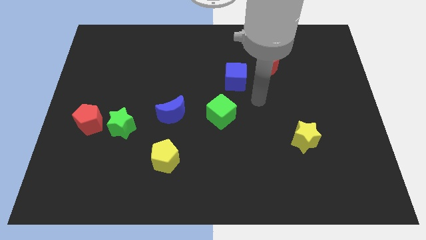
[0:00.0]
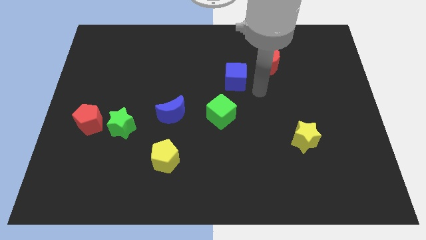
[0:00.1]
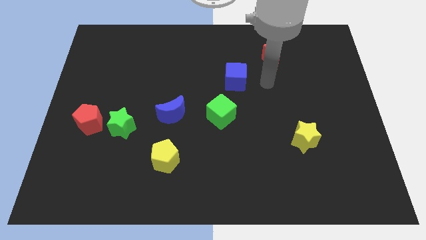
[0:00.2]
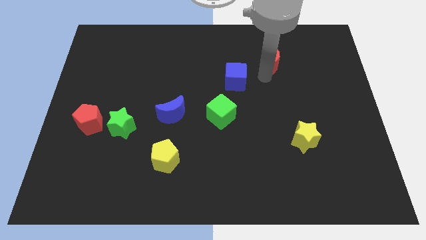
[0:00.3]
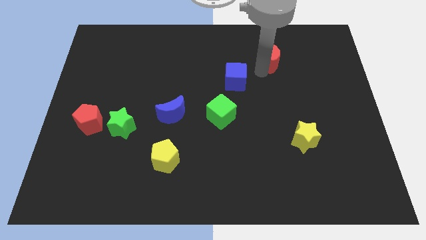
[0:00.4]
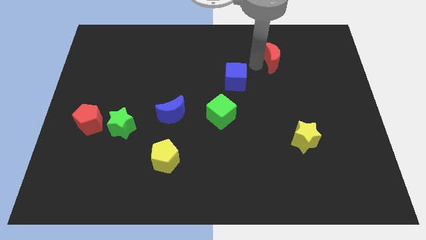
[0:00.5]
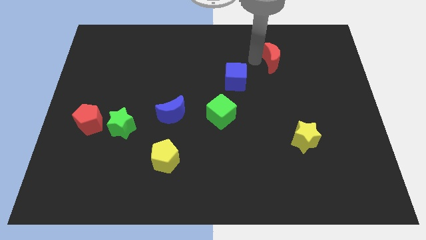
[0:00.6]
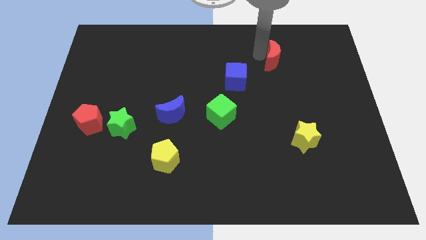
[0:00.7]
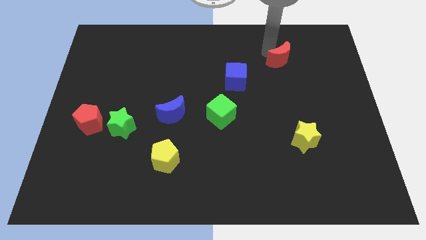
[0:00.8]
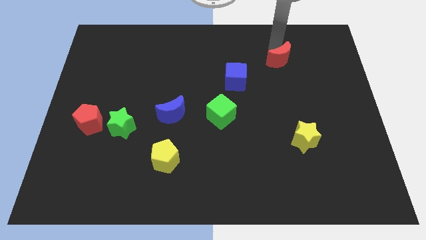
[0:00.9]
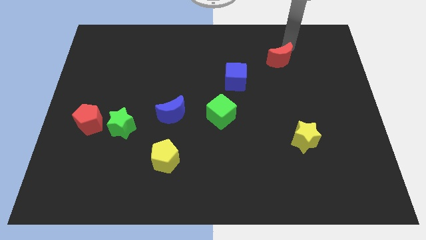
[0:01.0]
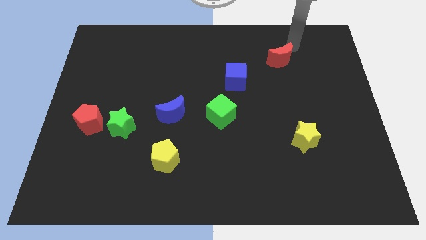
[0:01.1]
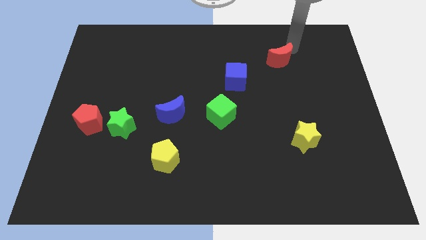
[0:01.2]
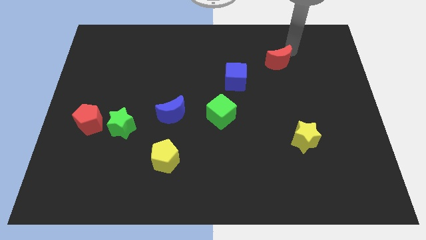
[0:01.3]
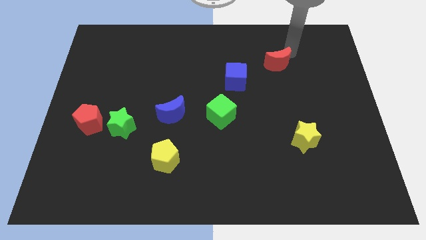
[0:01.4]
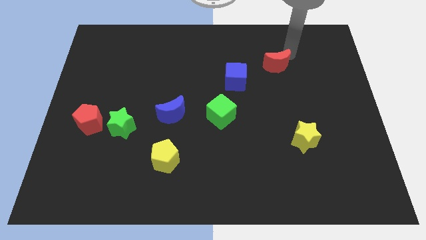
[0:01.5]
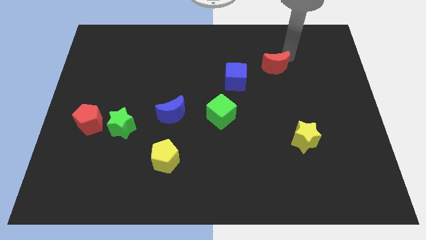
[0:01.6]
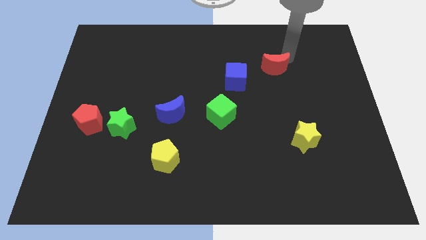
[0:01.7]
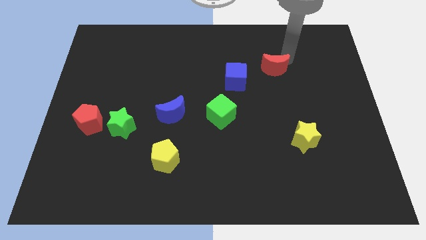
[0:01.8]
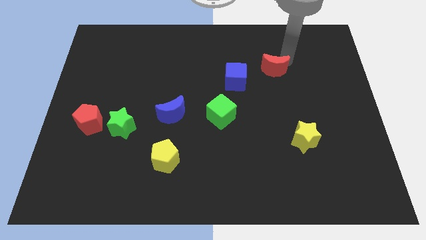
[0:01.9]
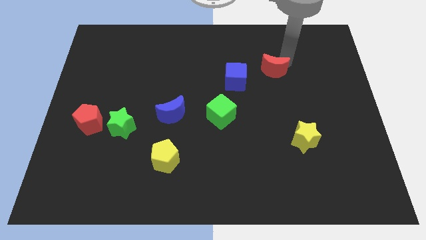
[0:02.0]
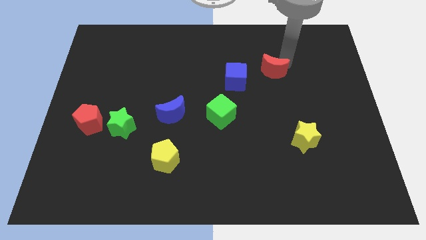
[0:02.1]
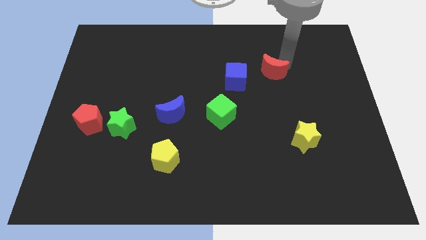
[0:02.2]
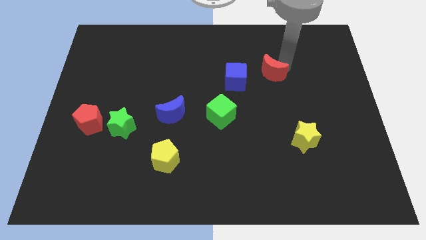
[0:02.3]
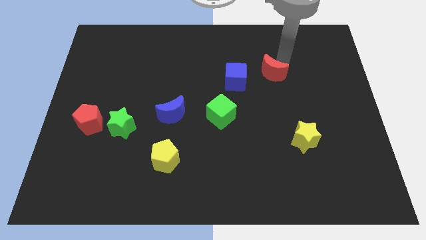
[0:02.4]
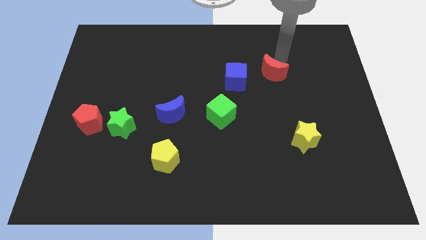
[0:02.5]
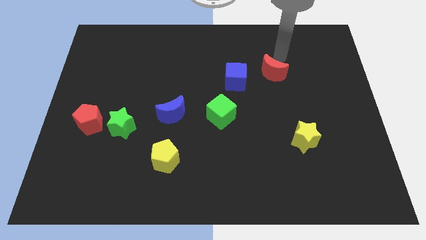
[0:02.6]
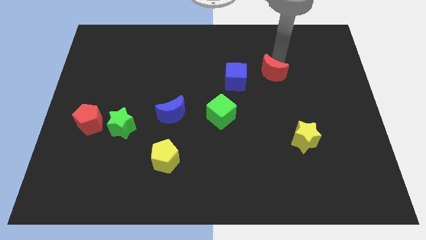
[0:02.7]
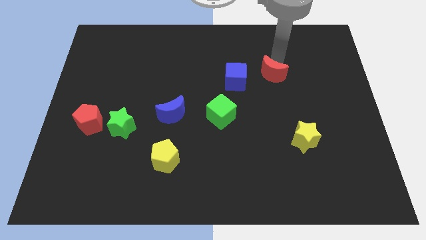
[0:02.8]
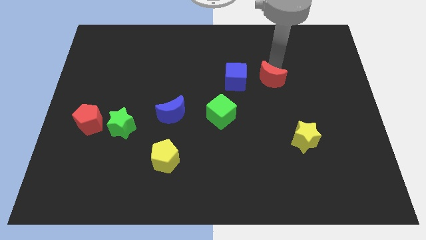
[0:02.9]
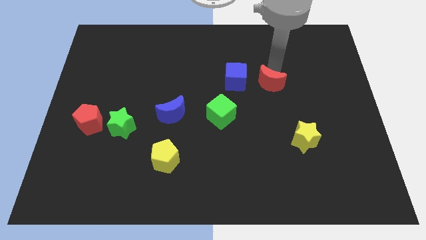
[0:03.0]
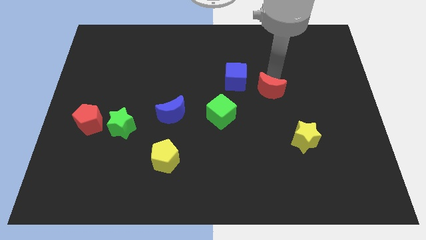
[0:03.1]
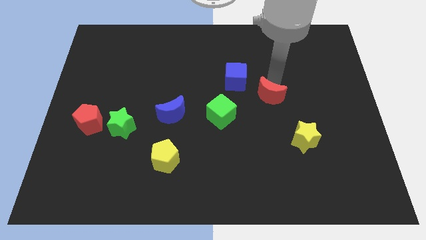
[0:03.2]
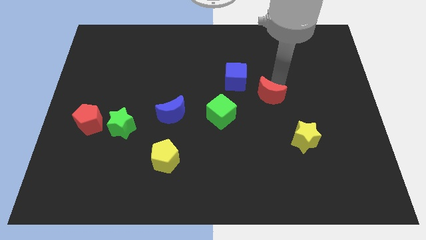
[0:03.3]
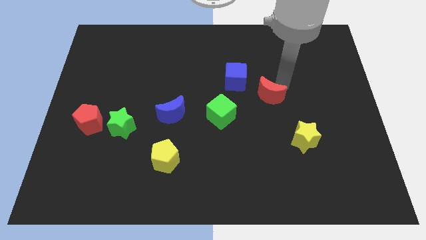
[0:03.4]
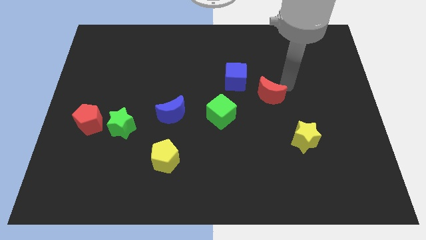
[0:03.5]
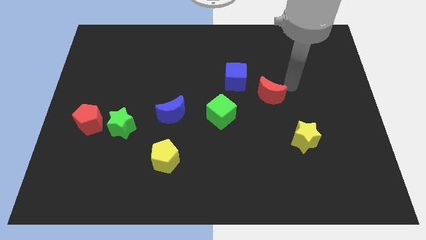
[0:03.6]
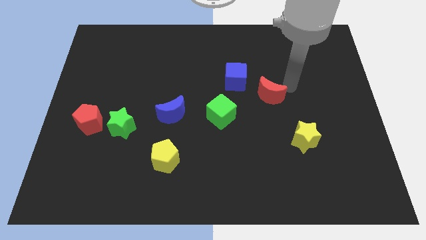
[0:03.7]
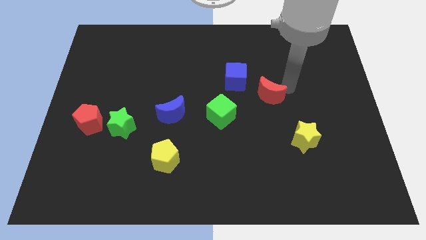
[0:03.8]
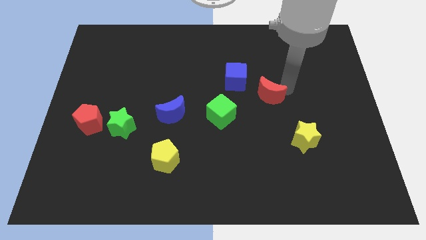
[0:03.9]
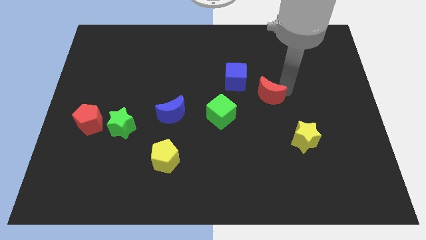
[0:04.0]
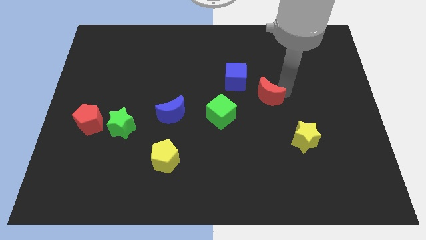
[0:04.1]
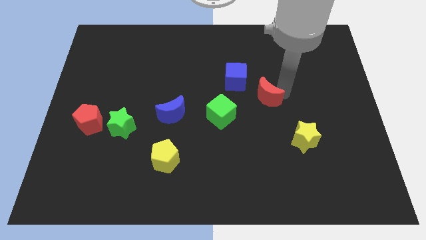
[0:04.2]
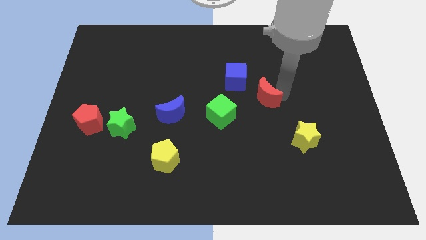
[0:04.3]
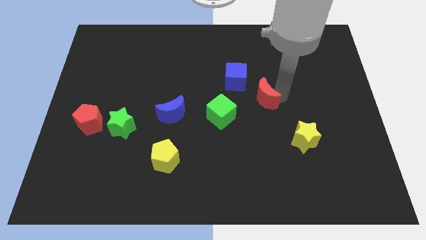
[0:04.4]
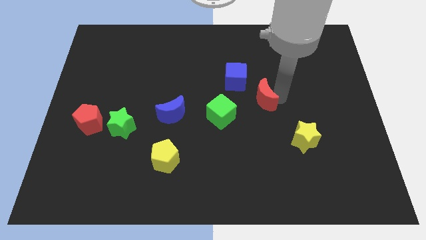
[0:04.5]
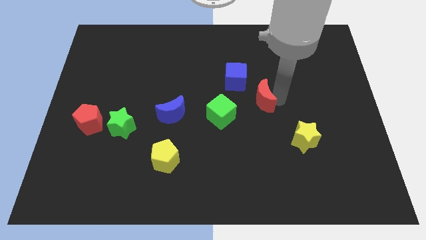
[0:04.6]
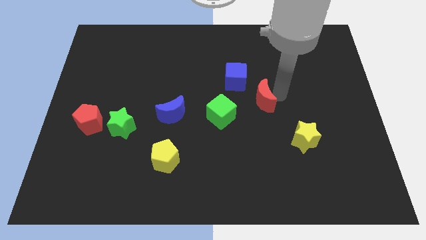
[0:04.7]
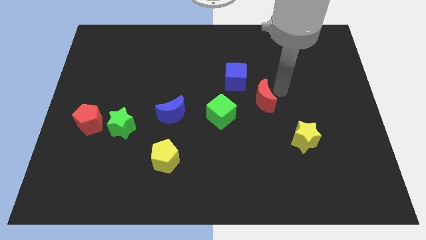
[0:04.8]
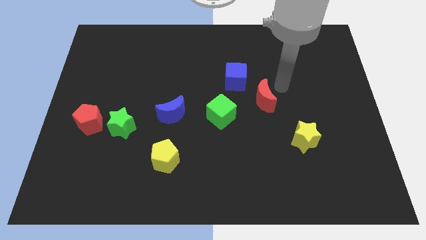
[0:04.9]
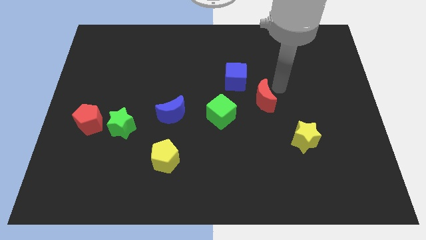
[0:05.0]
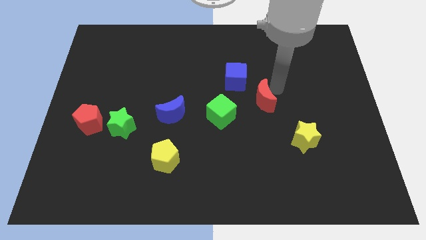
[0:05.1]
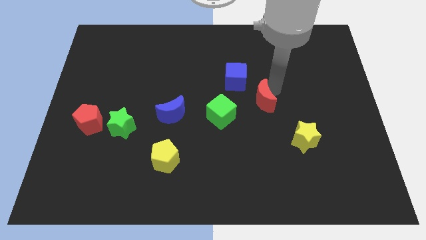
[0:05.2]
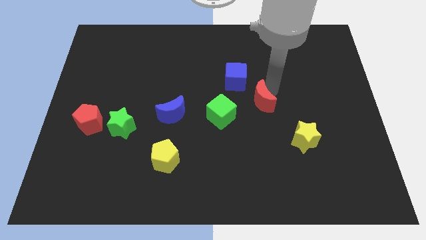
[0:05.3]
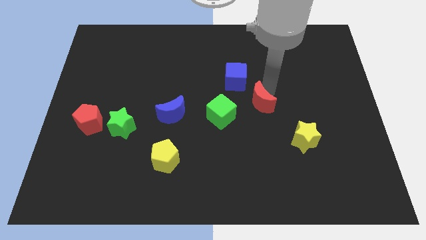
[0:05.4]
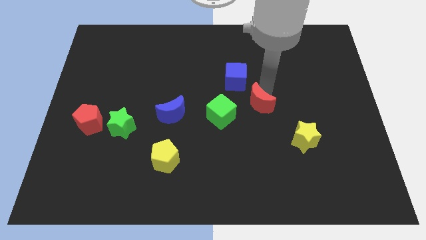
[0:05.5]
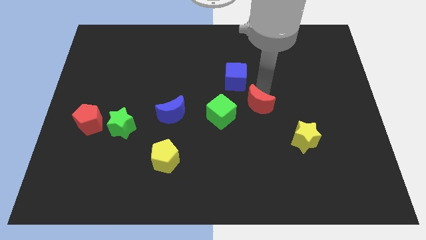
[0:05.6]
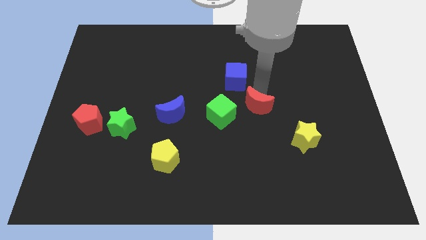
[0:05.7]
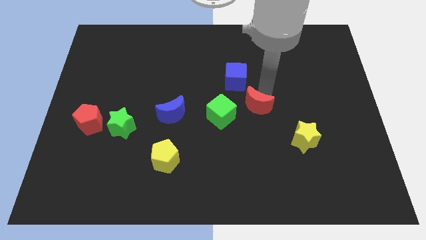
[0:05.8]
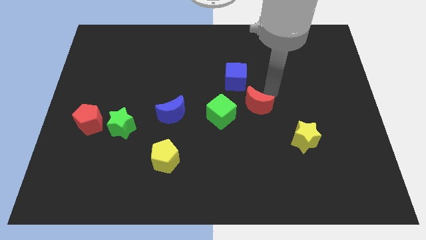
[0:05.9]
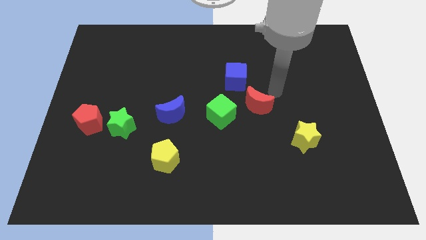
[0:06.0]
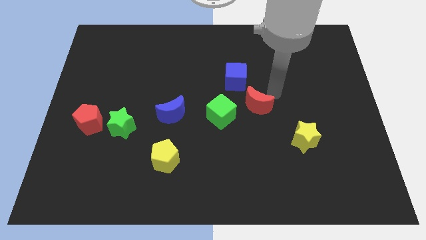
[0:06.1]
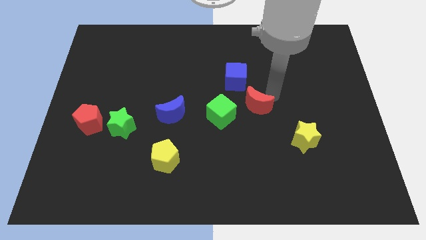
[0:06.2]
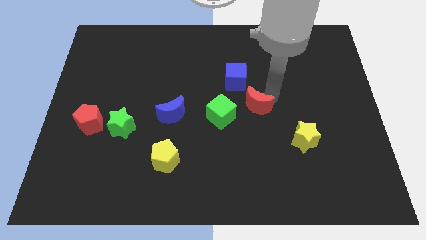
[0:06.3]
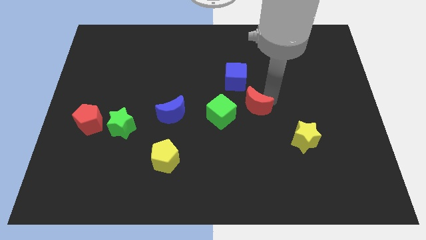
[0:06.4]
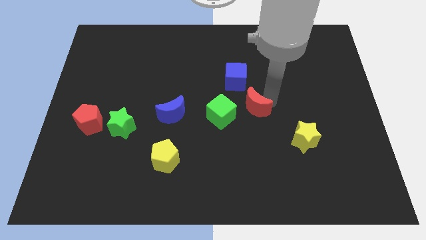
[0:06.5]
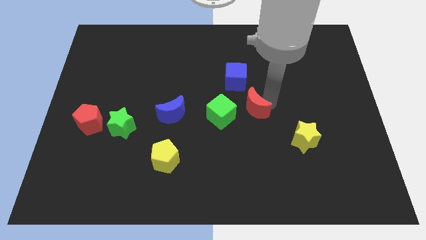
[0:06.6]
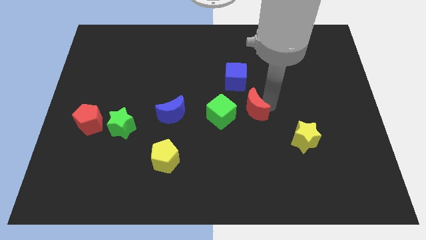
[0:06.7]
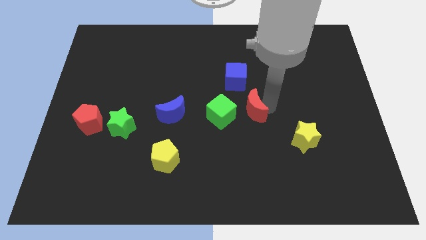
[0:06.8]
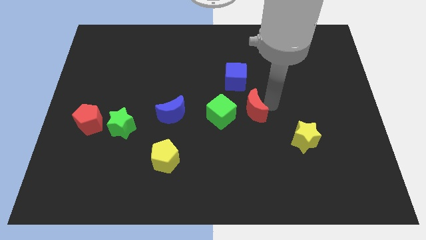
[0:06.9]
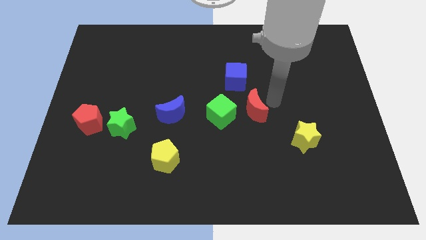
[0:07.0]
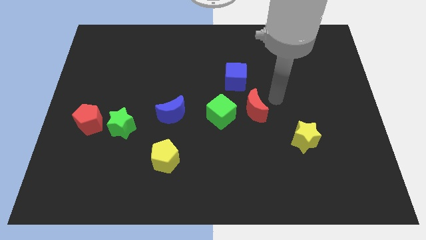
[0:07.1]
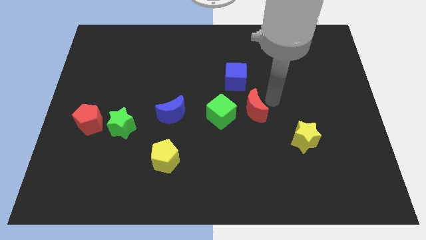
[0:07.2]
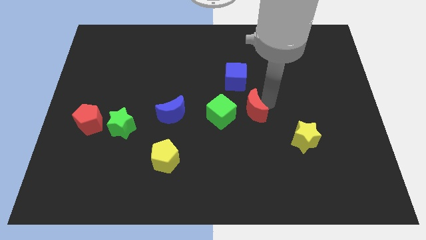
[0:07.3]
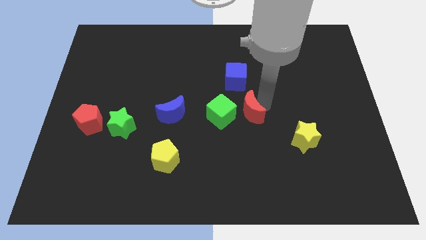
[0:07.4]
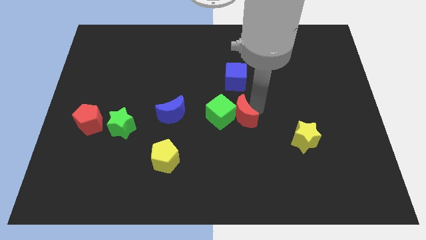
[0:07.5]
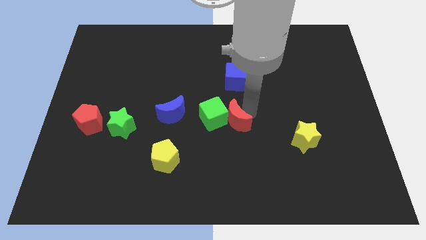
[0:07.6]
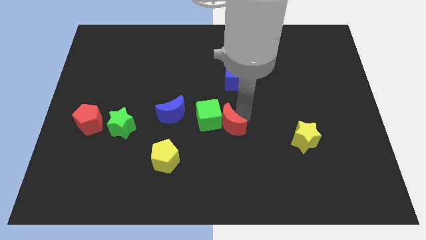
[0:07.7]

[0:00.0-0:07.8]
push the red moon downwards and then left
